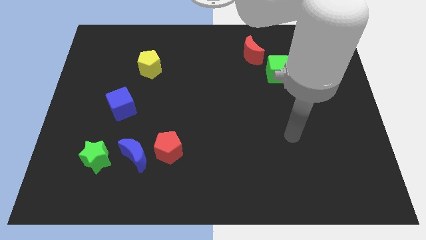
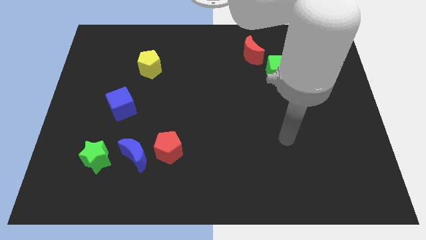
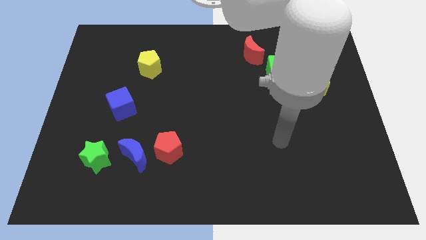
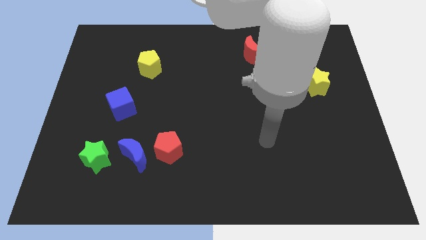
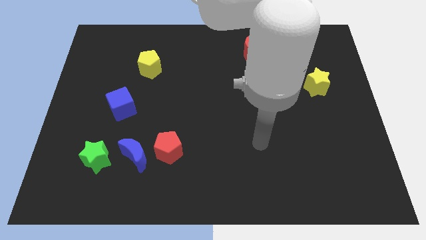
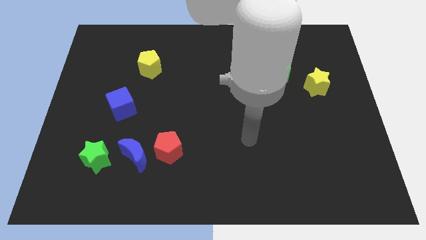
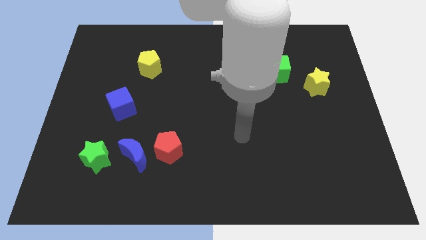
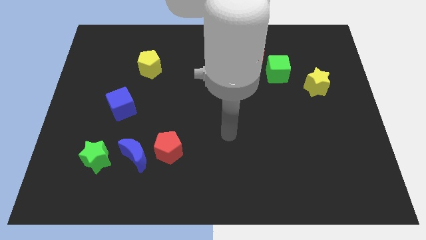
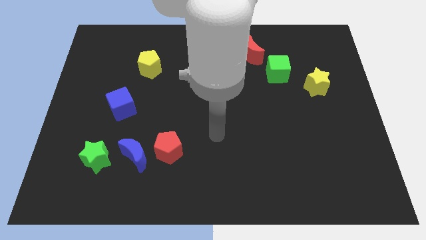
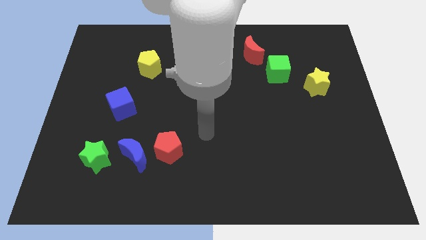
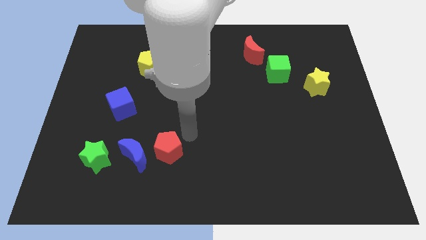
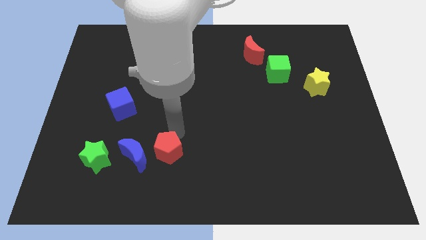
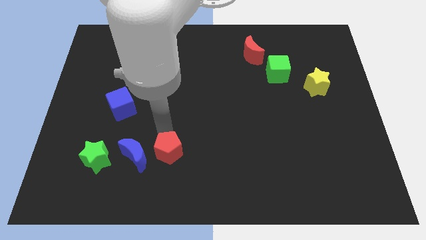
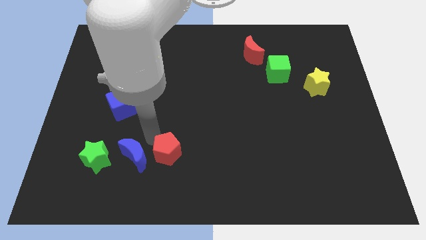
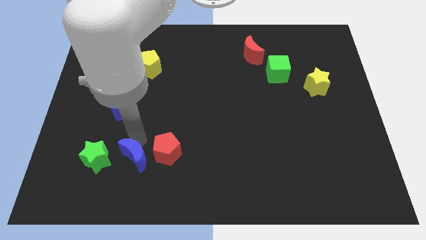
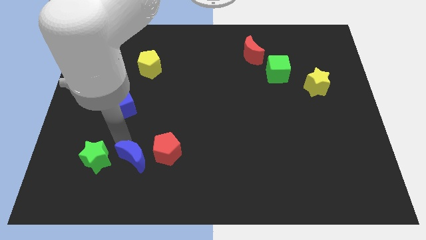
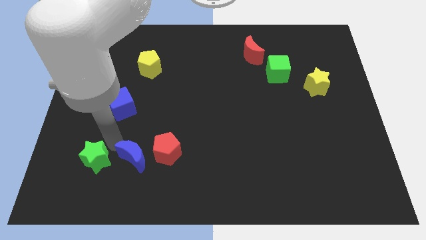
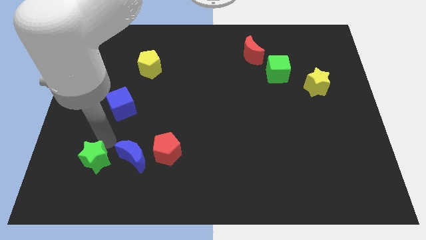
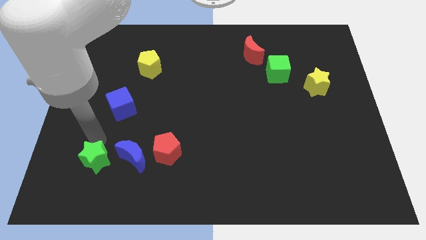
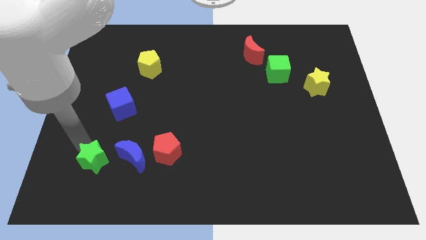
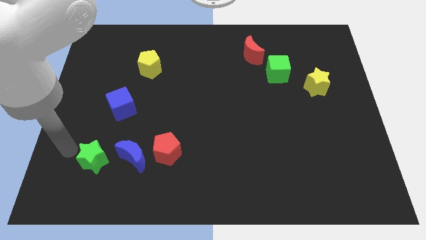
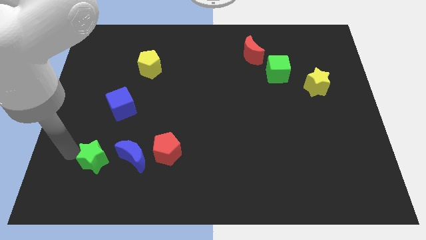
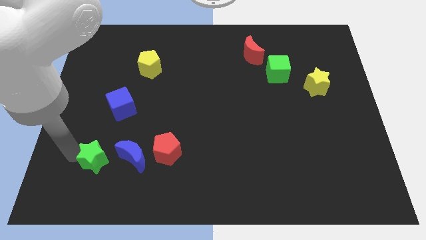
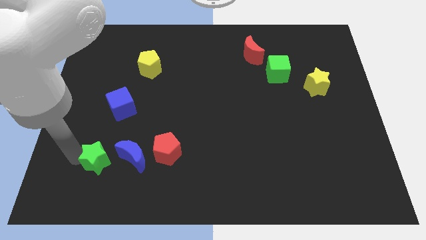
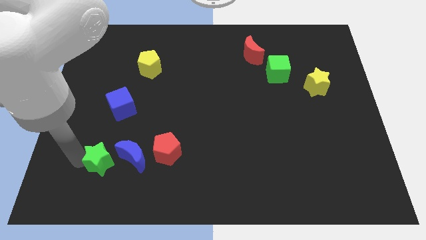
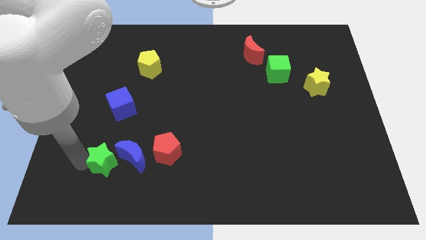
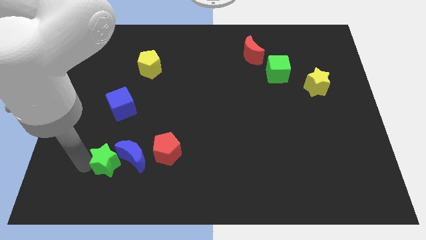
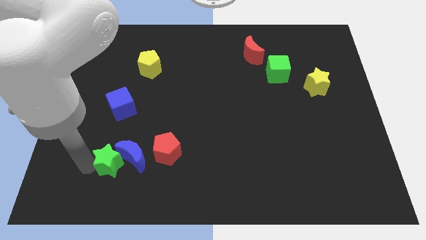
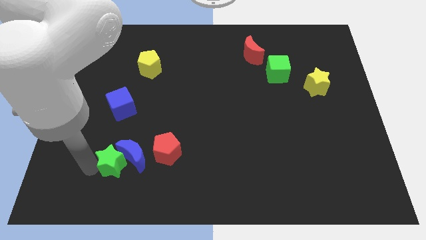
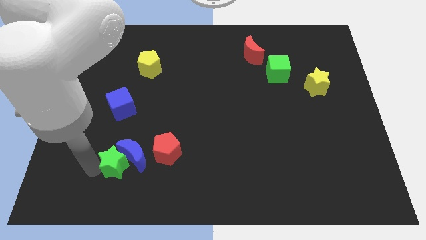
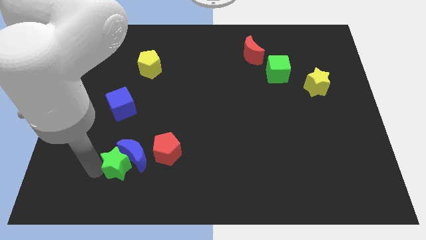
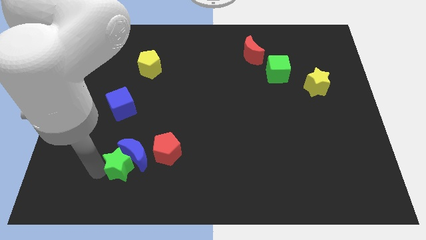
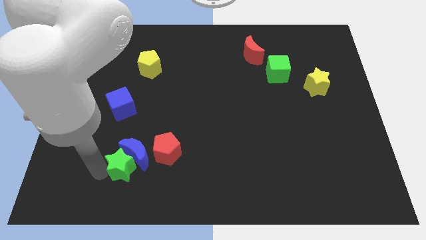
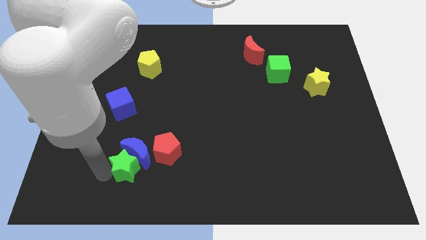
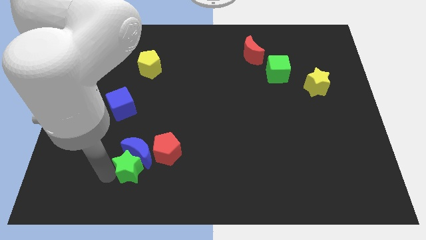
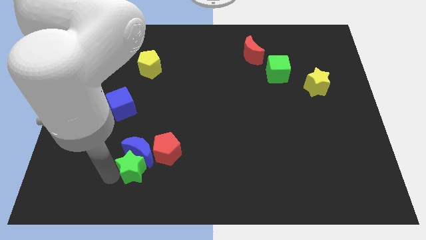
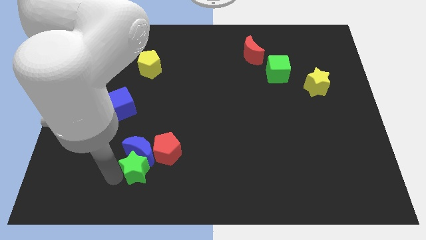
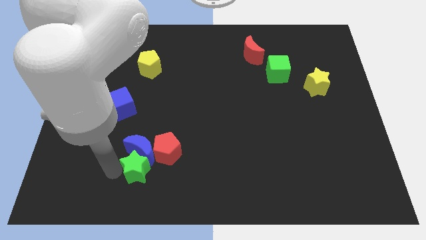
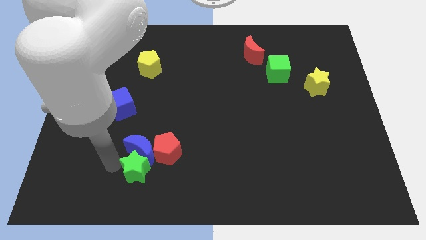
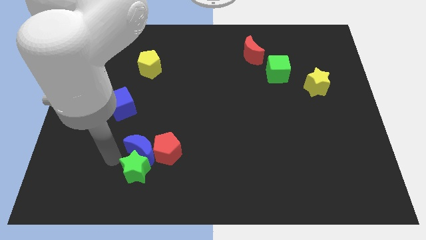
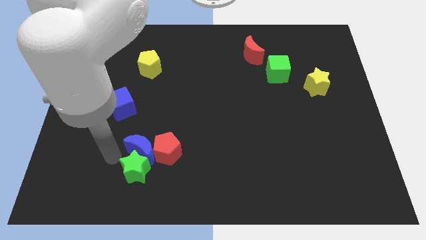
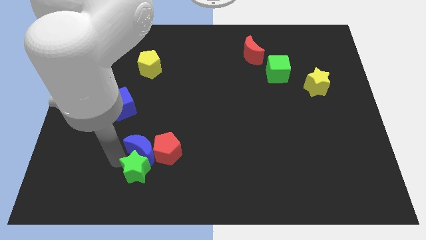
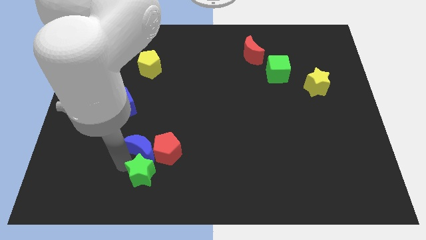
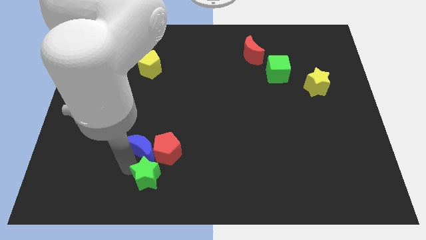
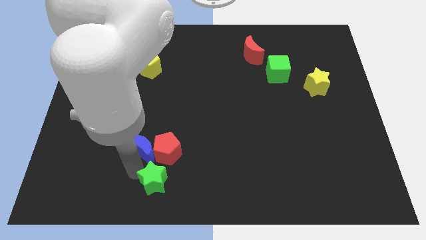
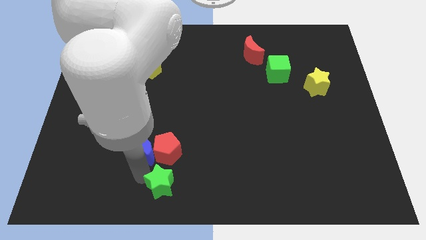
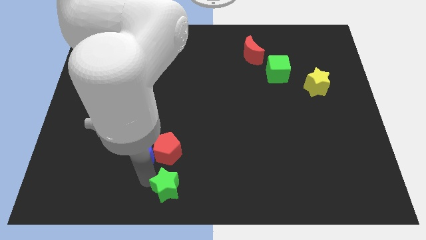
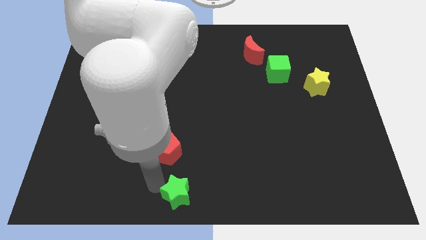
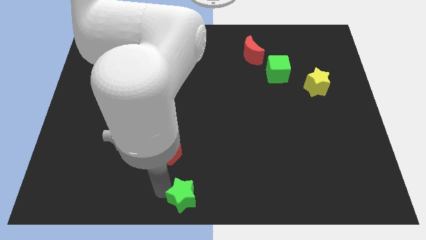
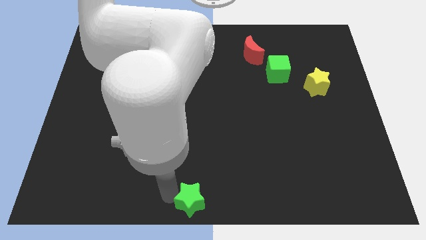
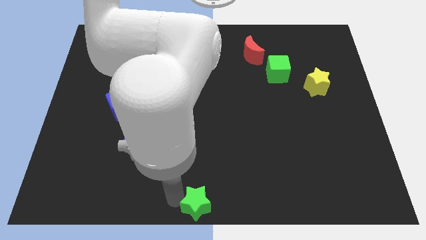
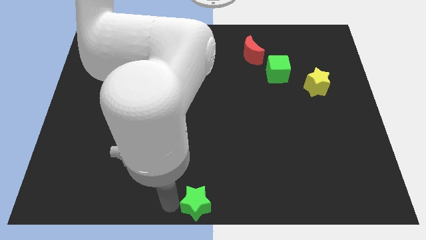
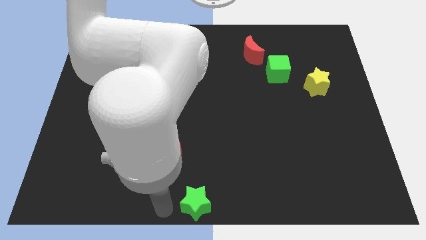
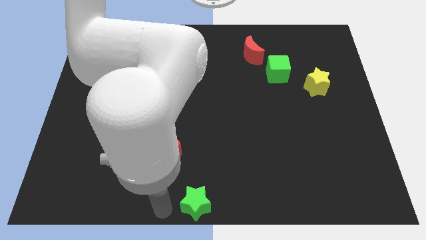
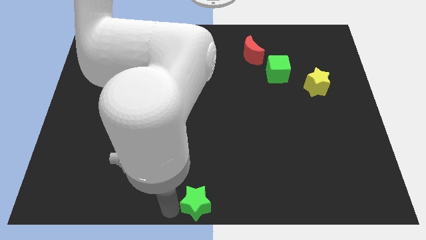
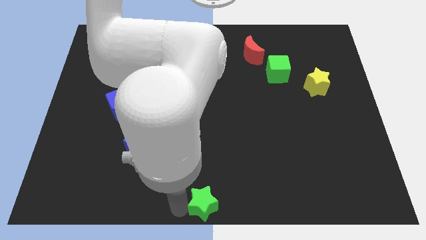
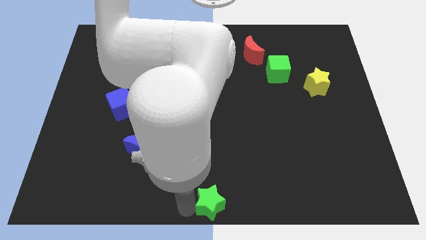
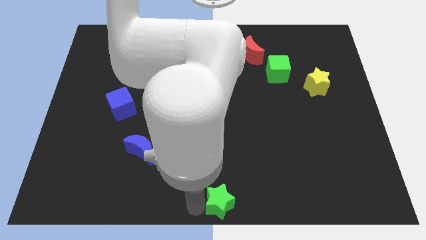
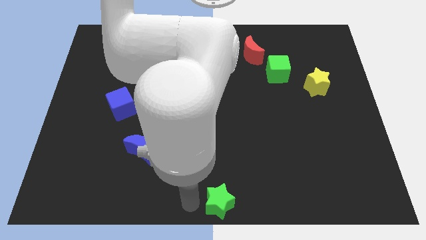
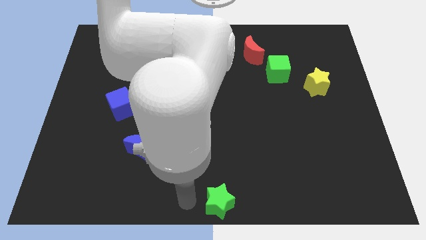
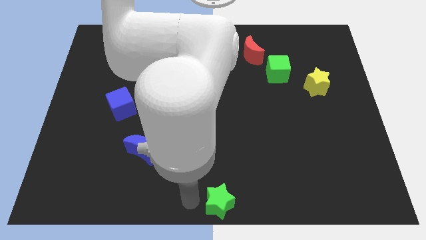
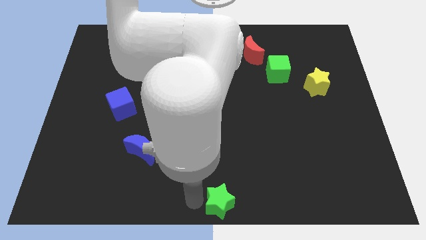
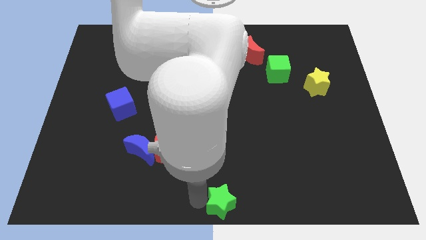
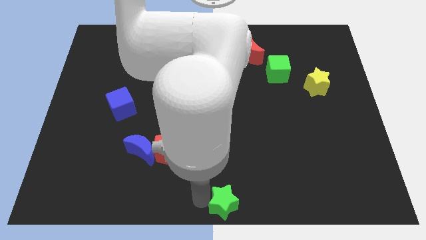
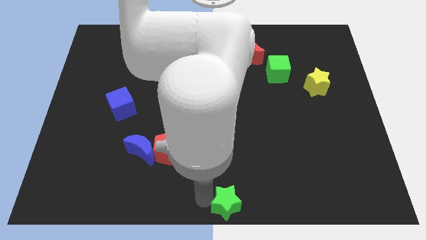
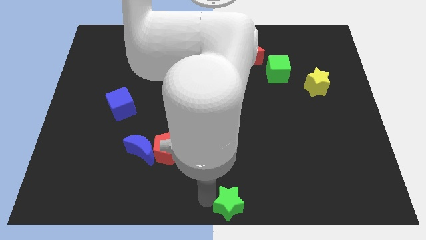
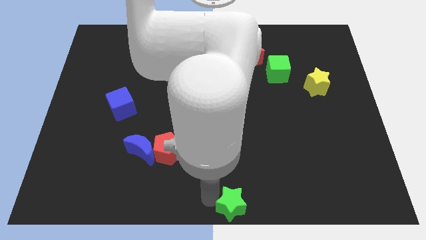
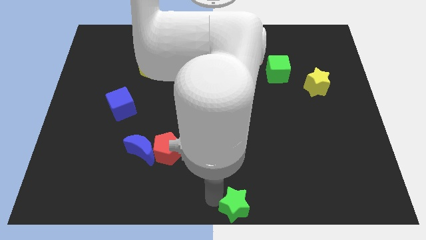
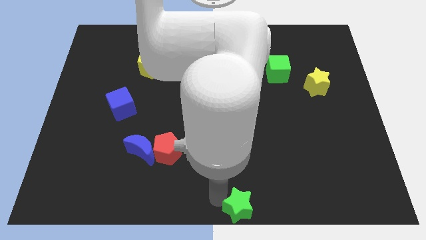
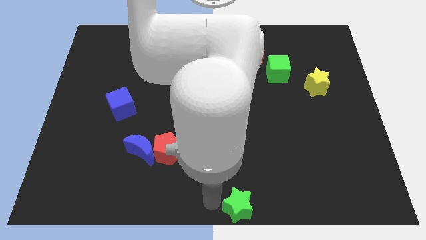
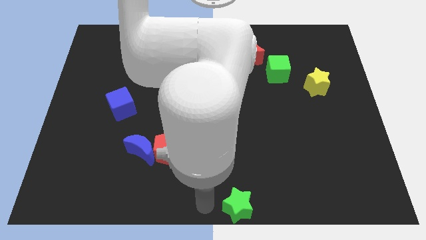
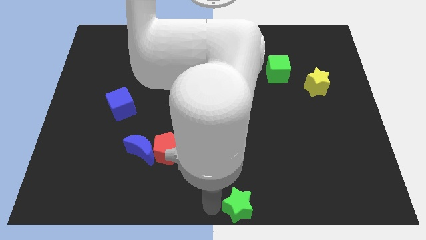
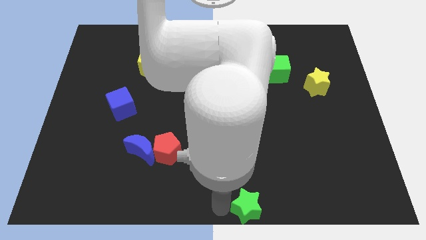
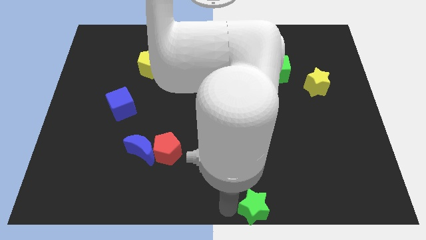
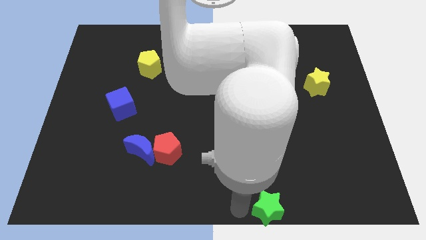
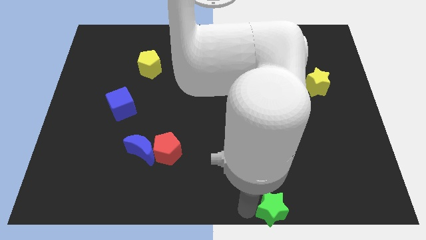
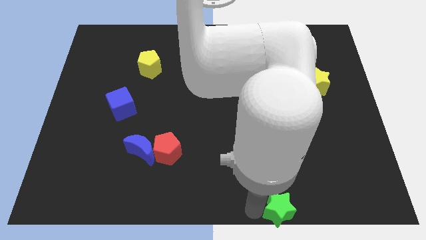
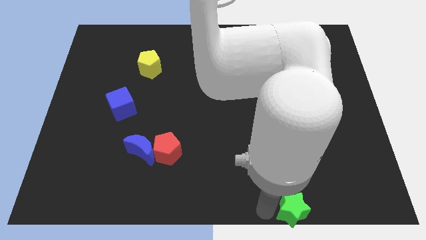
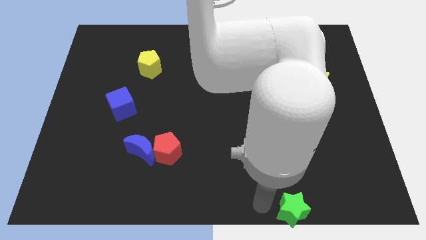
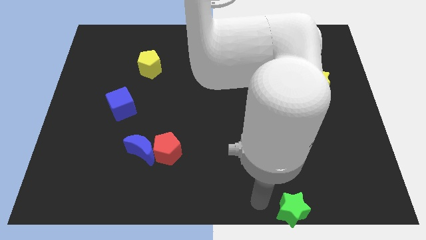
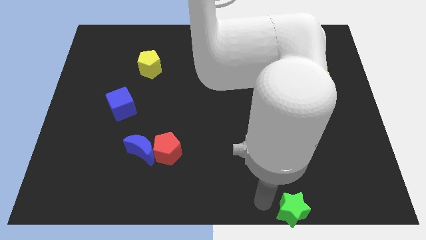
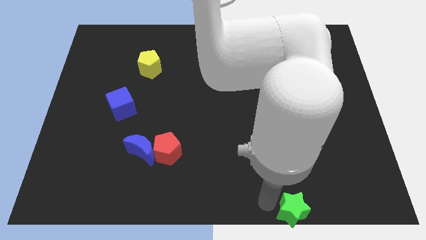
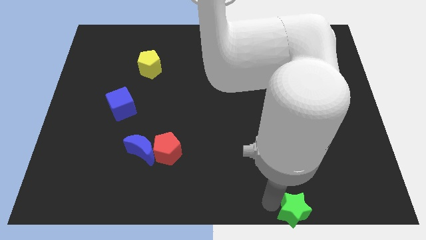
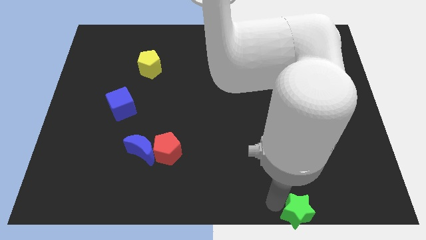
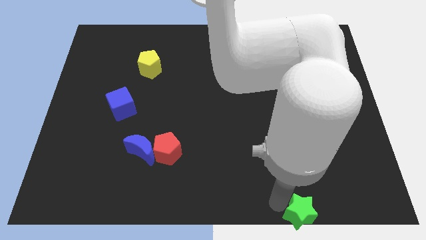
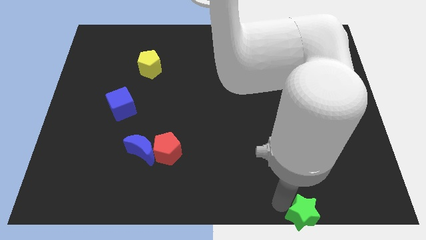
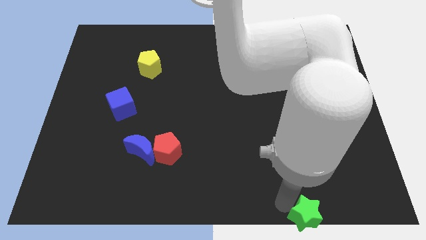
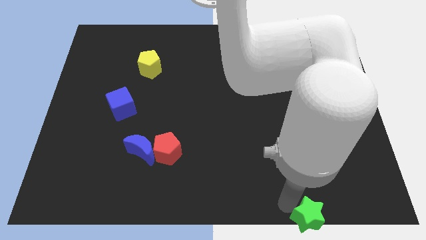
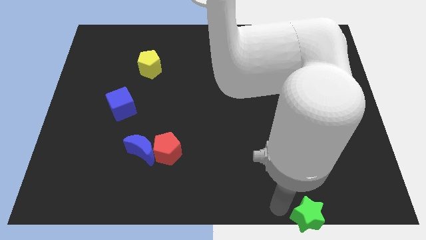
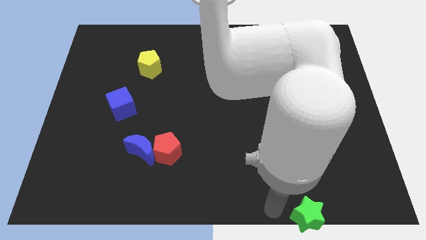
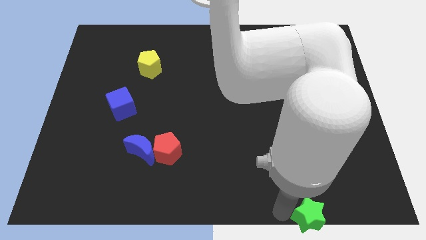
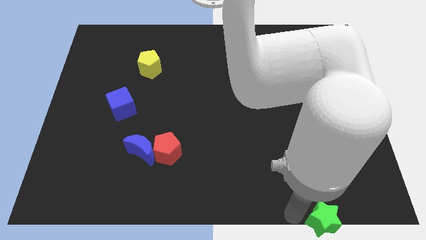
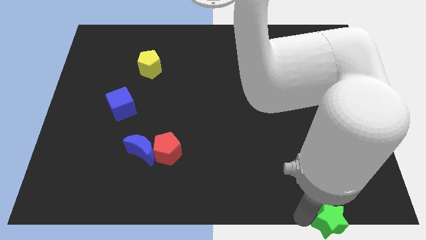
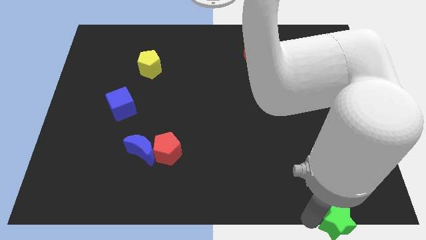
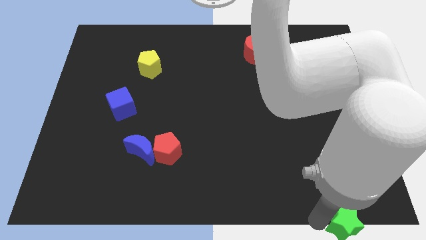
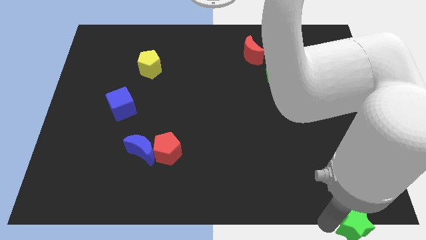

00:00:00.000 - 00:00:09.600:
put the green star to the lower right corner
